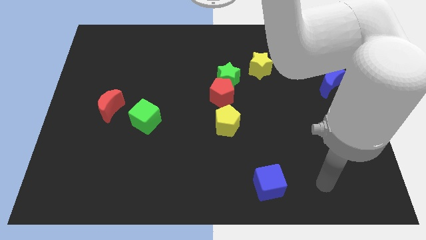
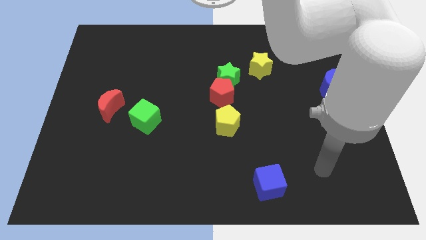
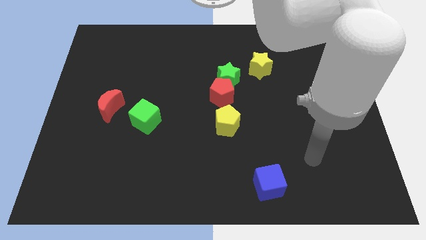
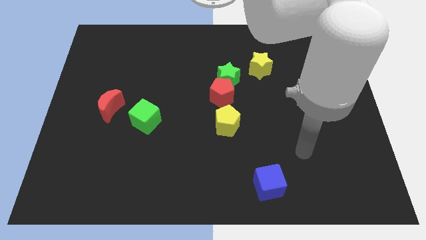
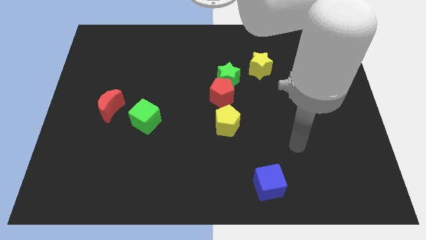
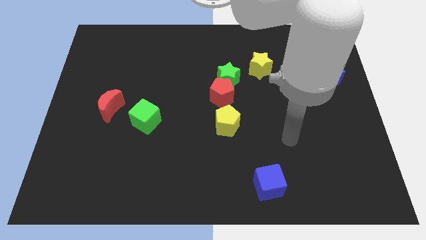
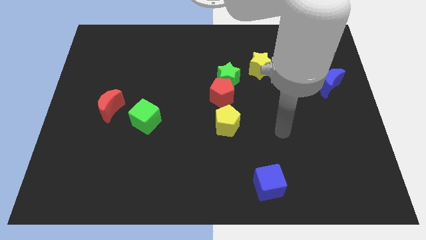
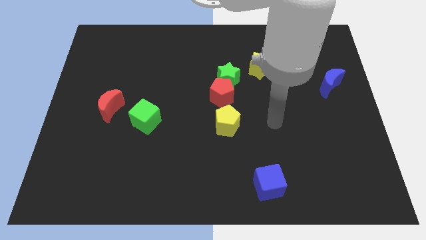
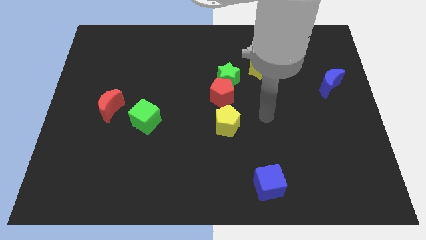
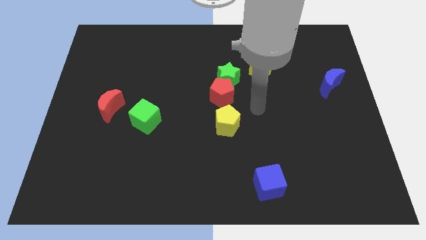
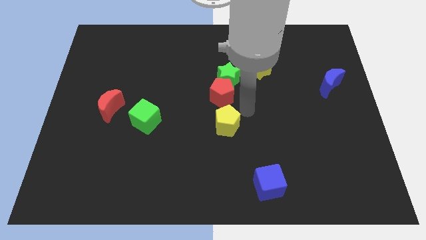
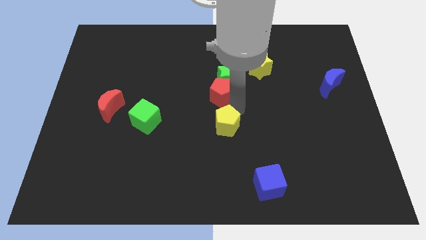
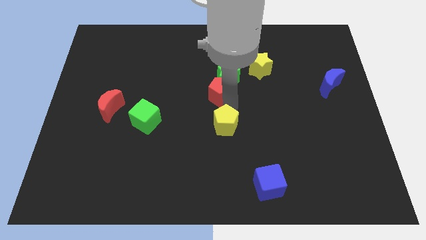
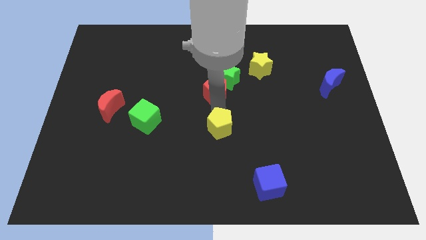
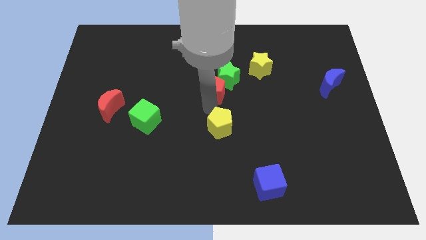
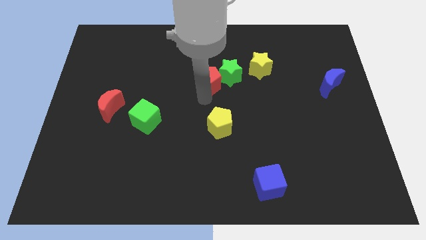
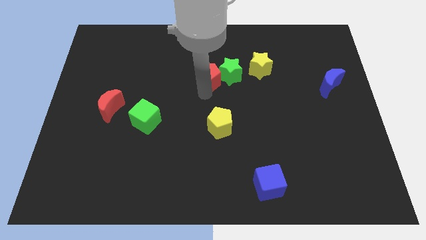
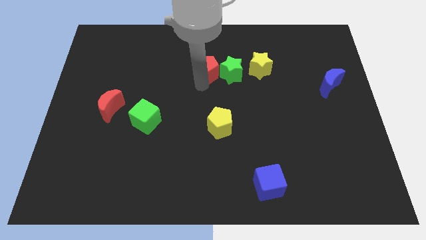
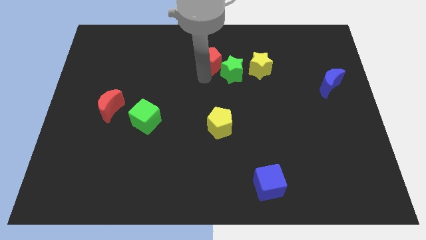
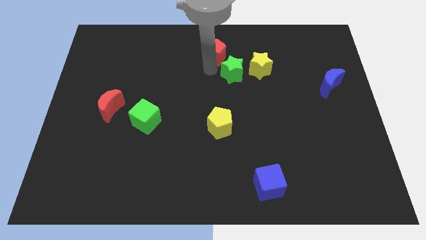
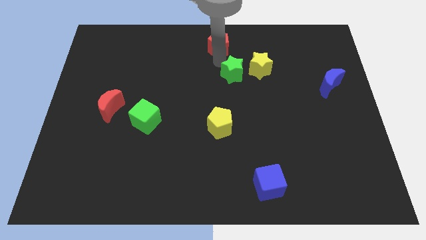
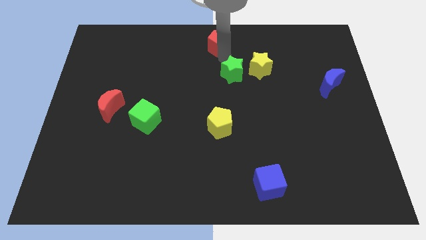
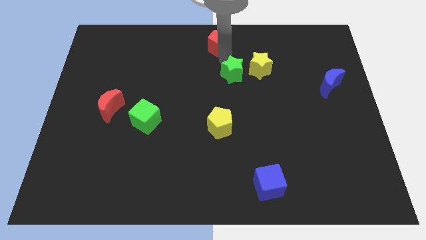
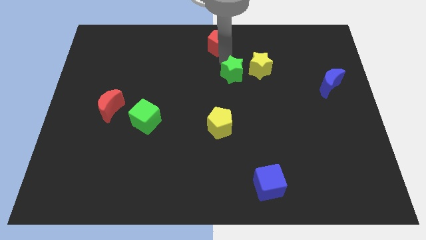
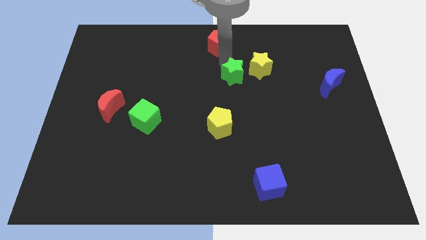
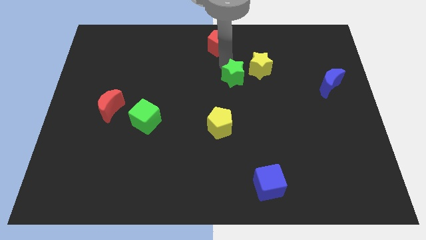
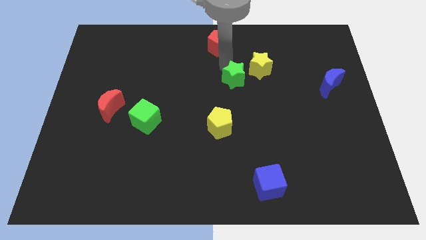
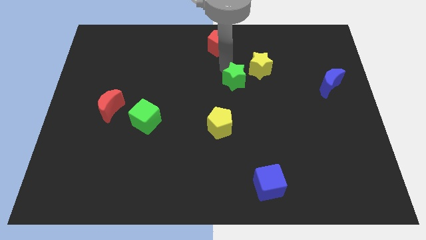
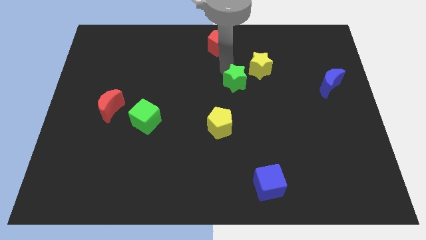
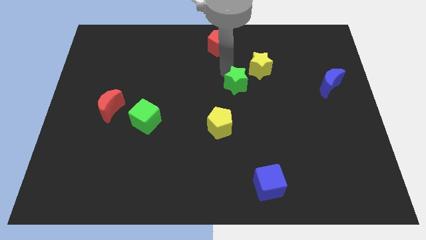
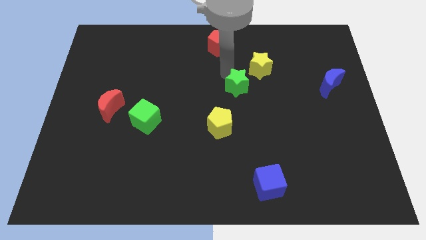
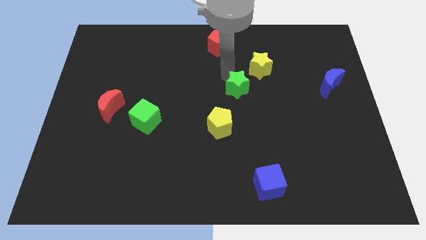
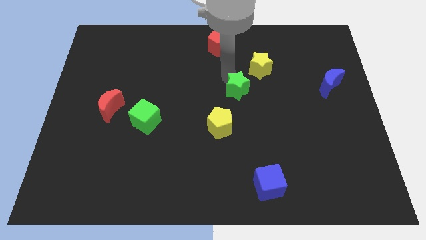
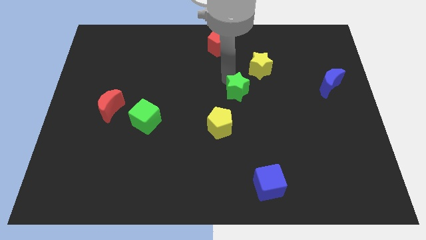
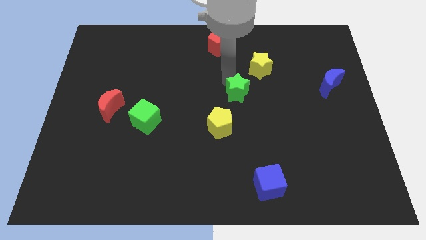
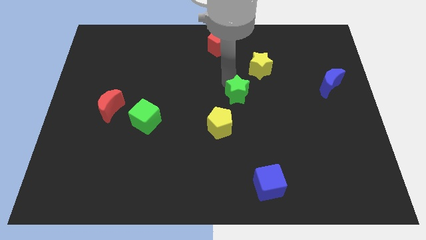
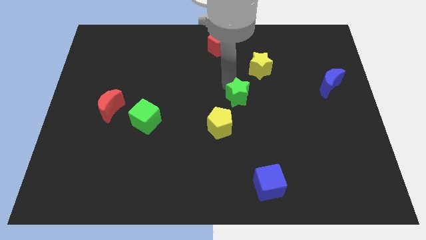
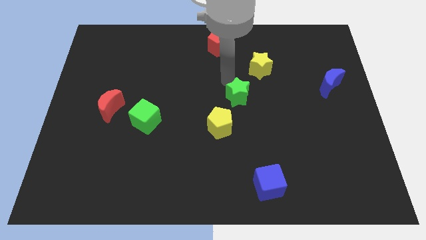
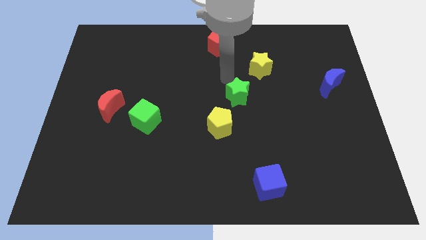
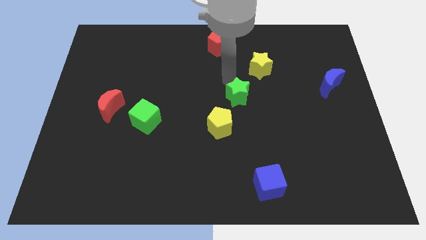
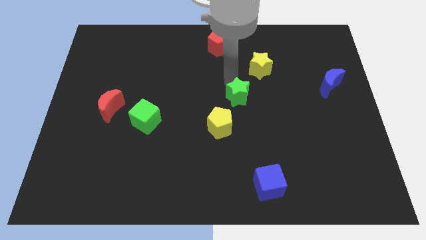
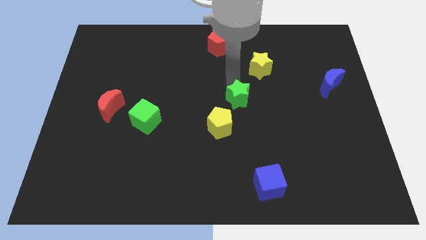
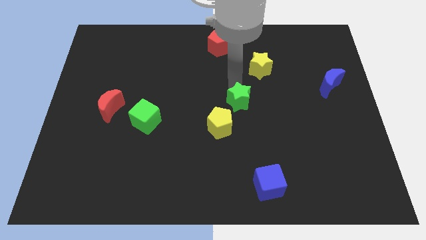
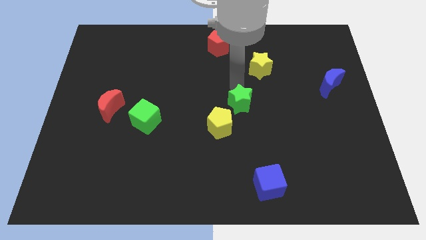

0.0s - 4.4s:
move the green star somewhat down

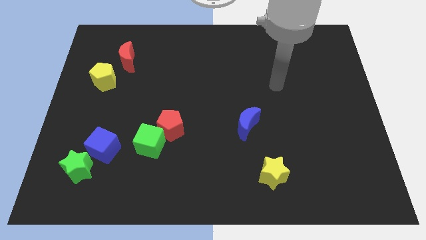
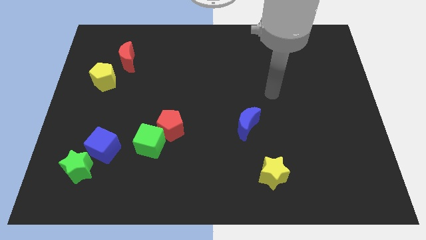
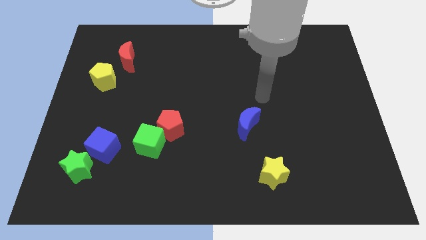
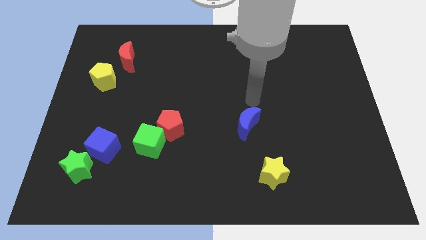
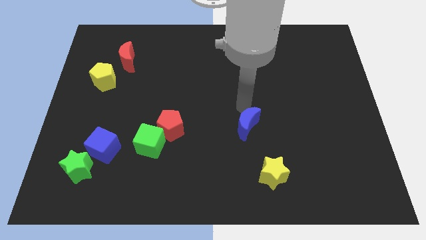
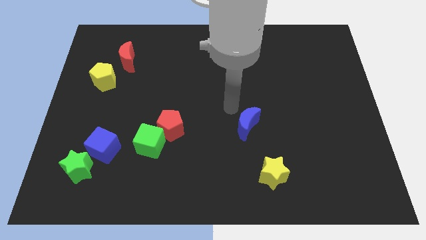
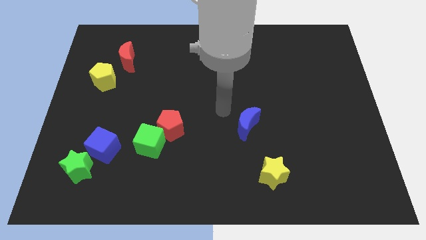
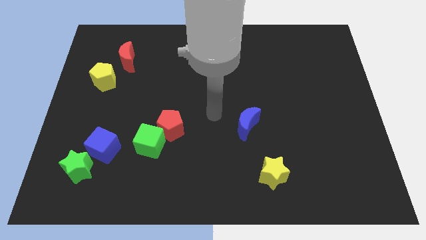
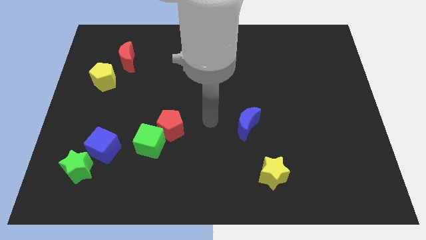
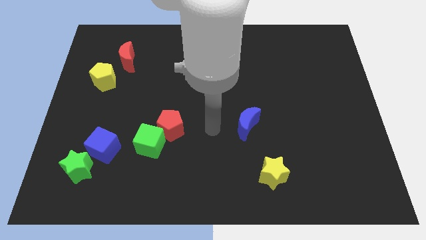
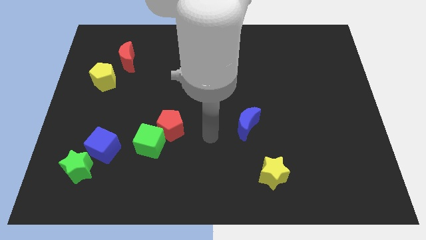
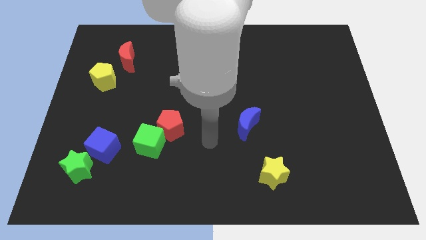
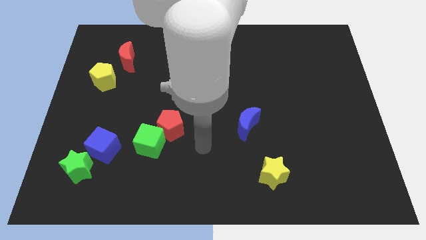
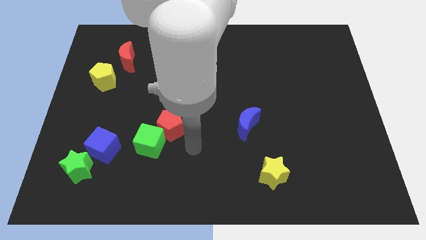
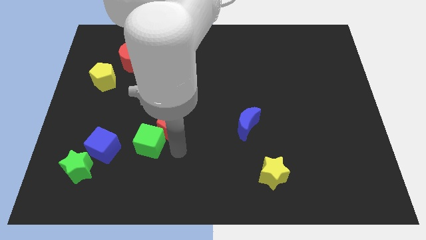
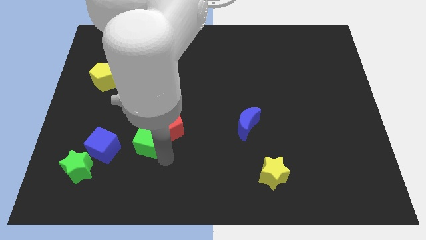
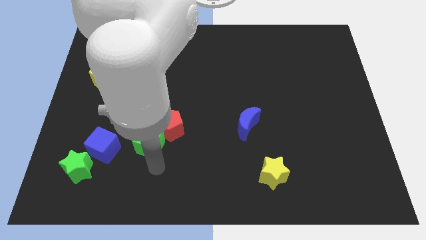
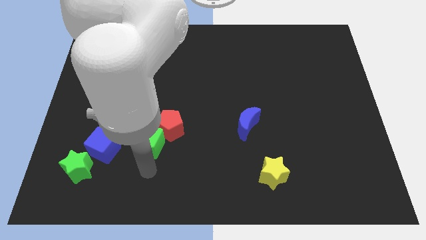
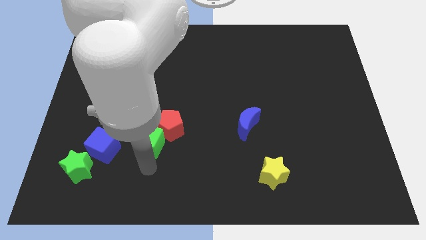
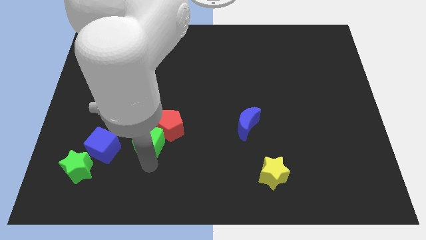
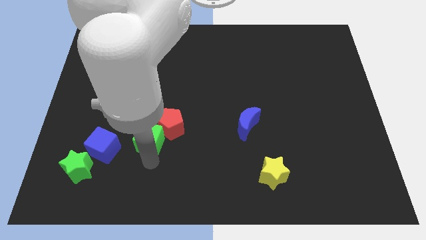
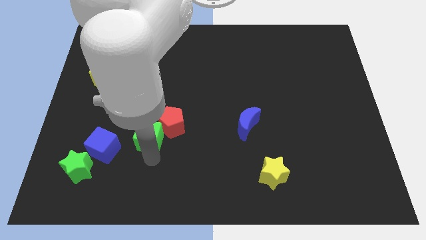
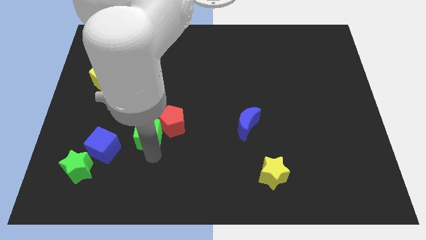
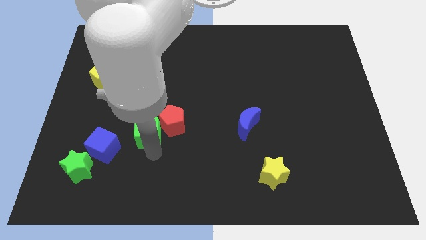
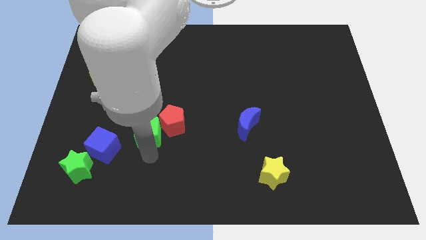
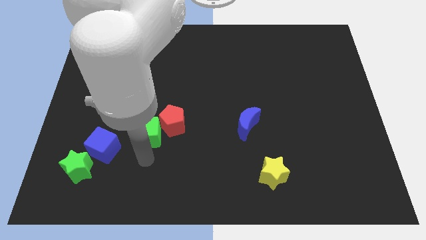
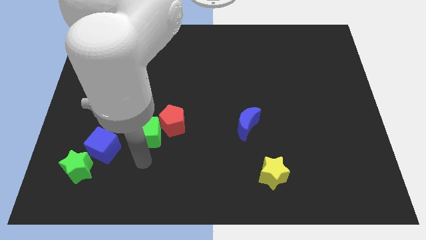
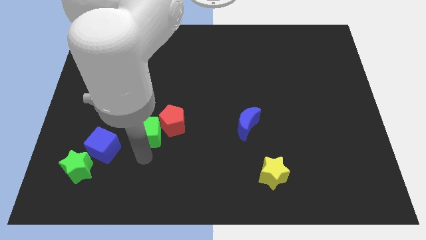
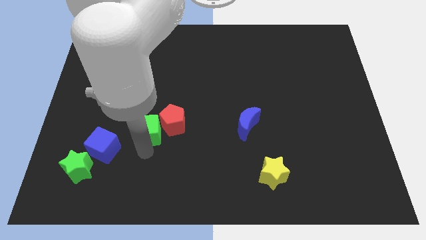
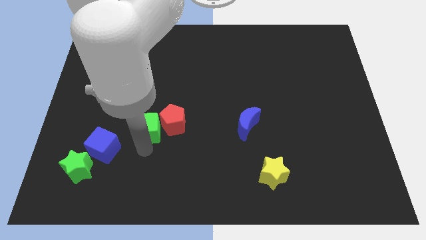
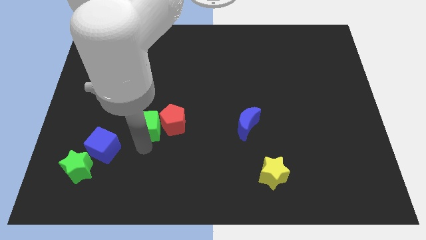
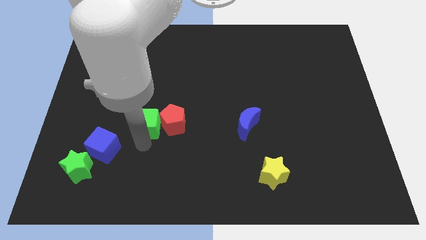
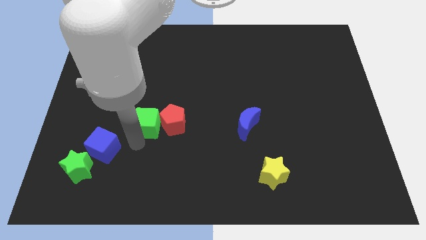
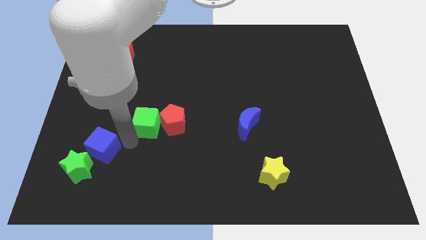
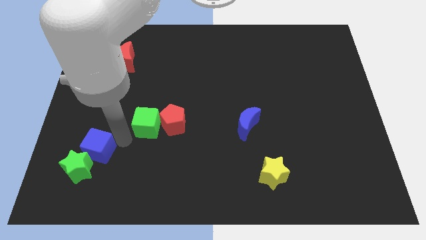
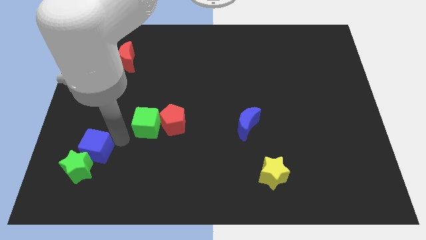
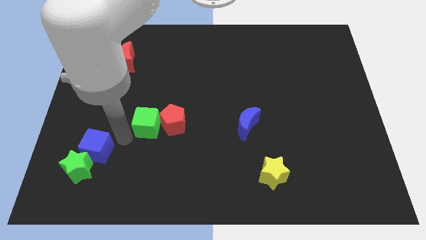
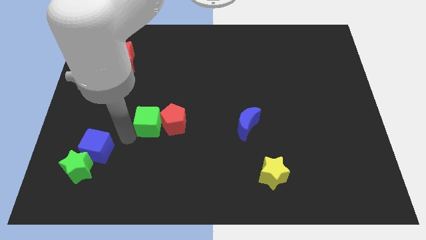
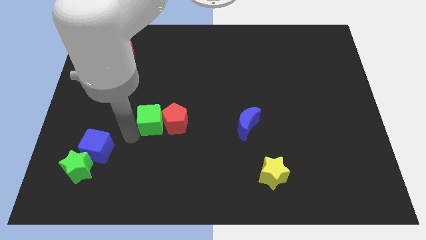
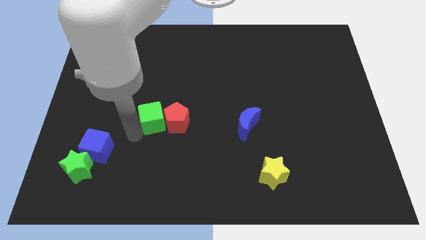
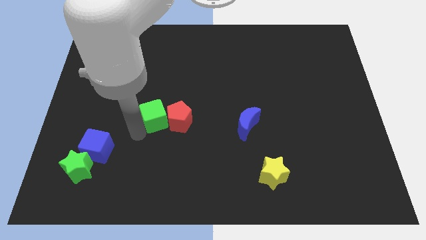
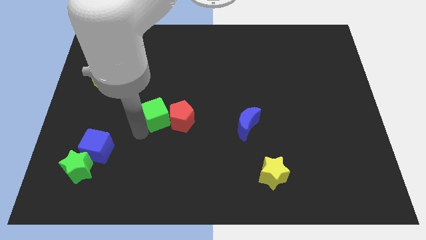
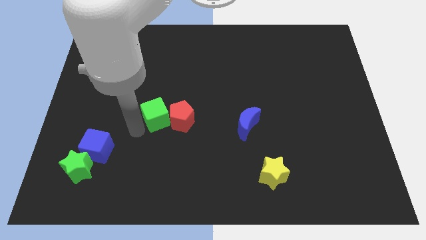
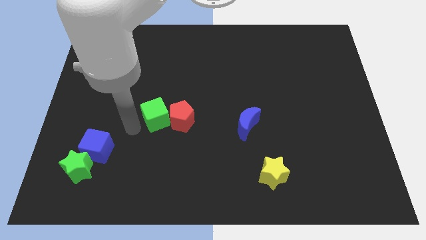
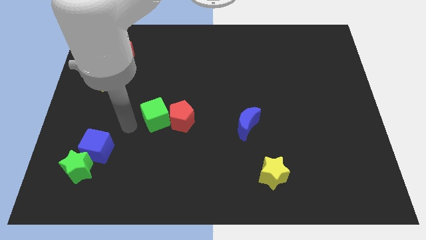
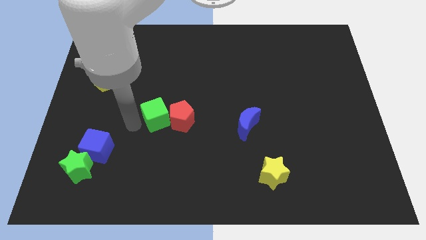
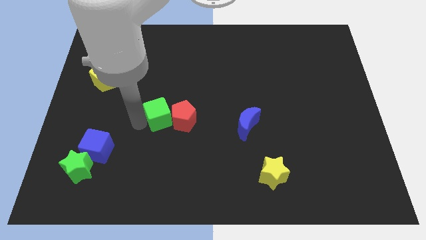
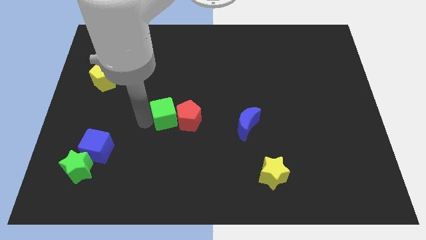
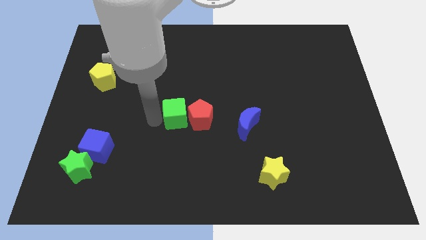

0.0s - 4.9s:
slide the green cube up and right diagonally a little
